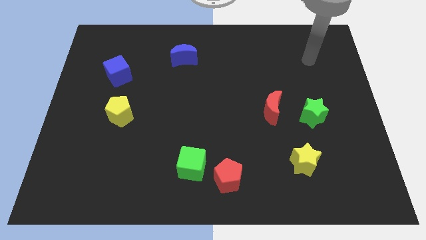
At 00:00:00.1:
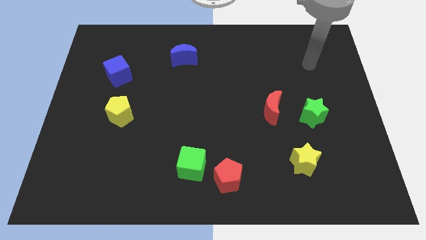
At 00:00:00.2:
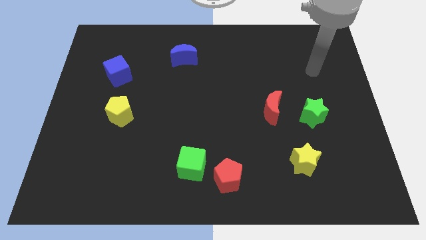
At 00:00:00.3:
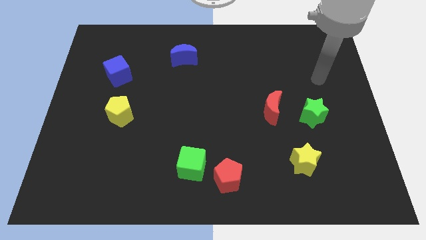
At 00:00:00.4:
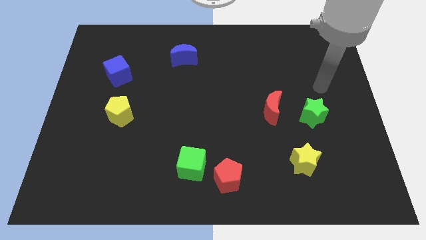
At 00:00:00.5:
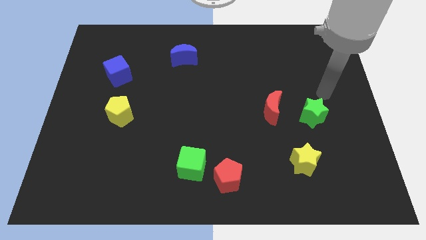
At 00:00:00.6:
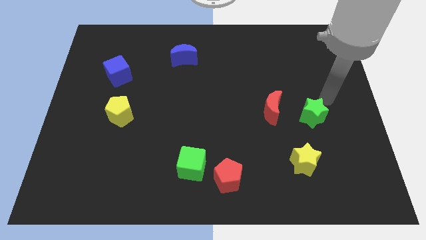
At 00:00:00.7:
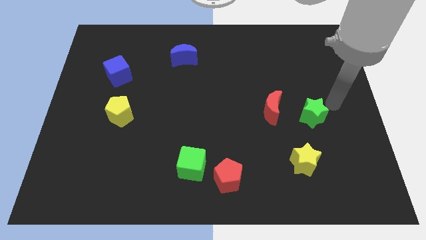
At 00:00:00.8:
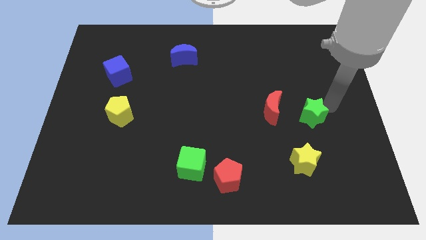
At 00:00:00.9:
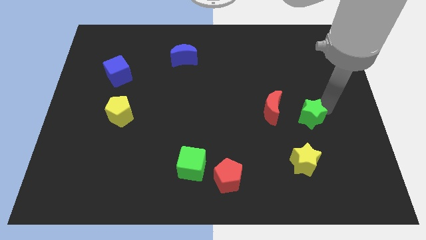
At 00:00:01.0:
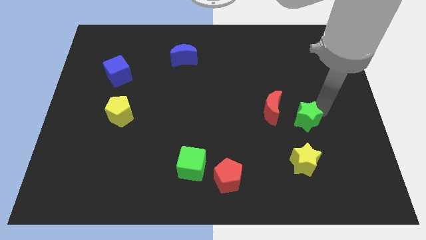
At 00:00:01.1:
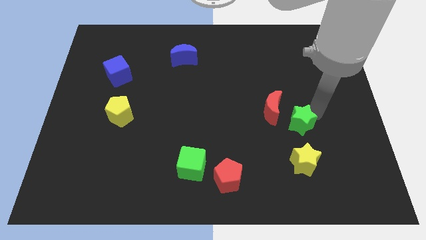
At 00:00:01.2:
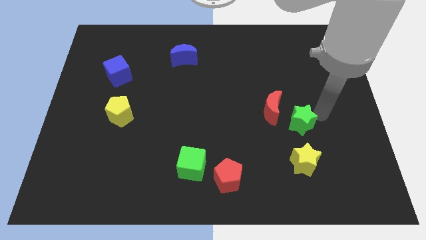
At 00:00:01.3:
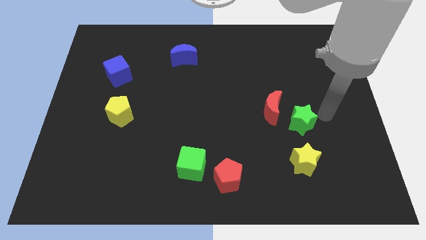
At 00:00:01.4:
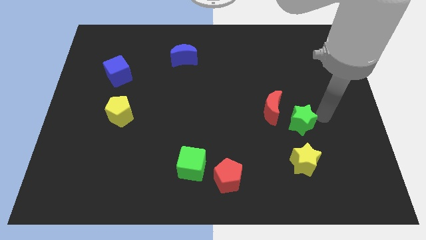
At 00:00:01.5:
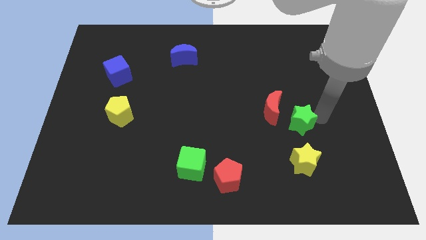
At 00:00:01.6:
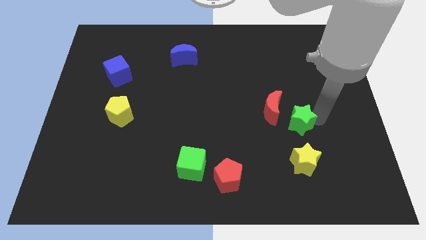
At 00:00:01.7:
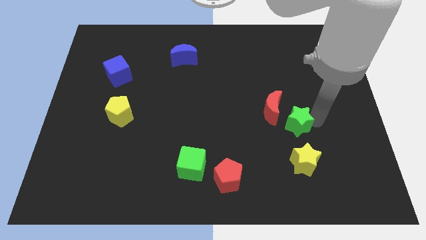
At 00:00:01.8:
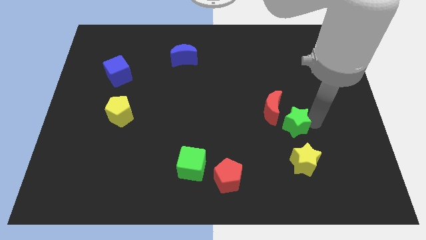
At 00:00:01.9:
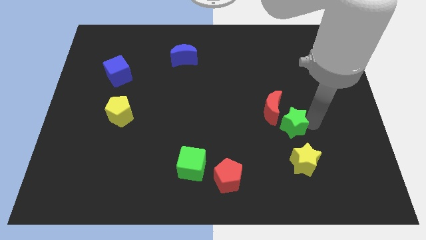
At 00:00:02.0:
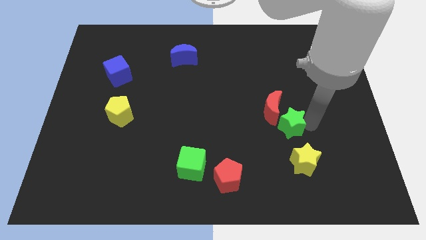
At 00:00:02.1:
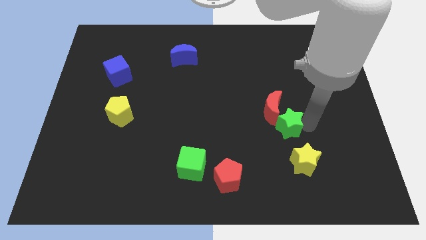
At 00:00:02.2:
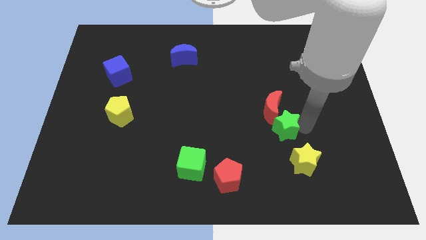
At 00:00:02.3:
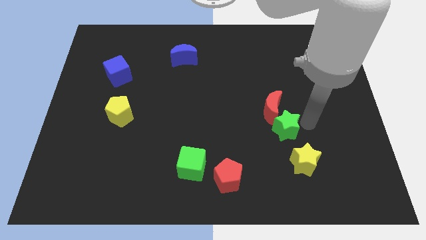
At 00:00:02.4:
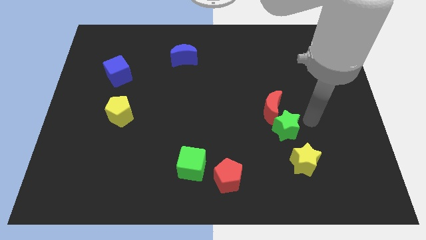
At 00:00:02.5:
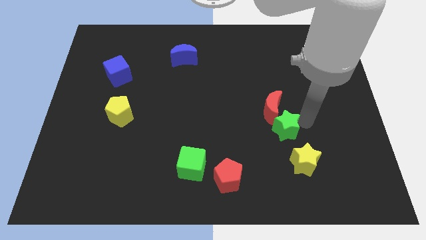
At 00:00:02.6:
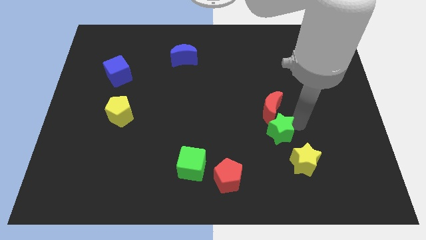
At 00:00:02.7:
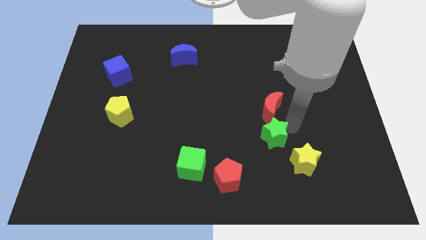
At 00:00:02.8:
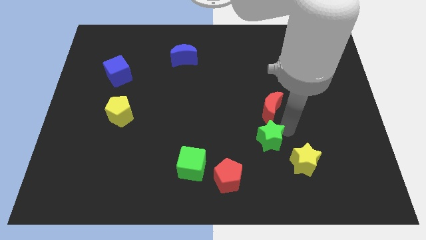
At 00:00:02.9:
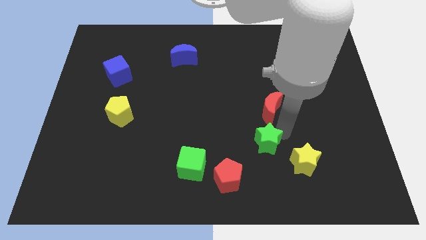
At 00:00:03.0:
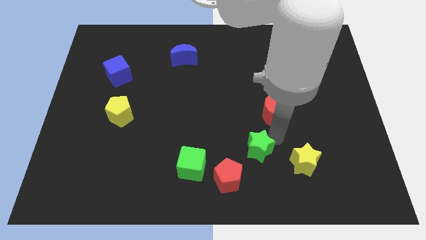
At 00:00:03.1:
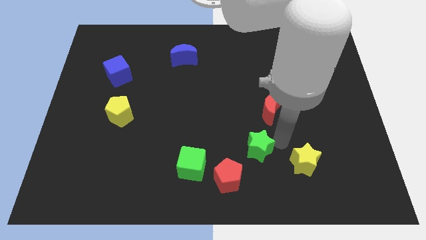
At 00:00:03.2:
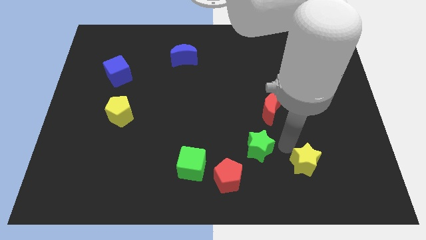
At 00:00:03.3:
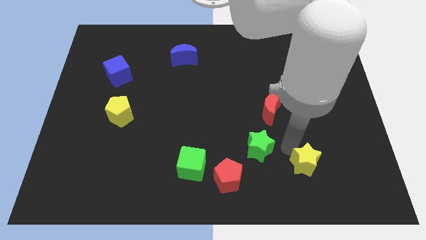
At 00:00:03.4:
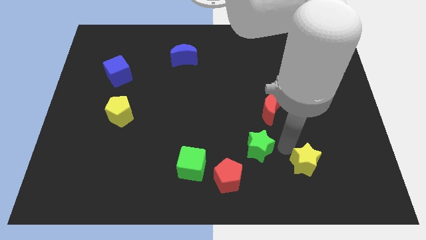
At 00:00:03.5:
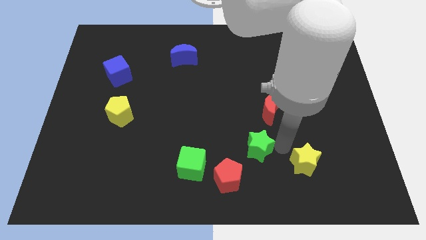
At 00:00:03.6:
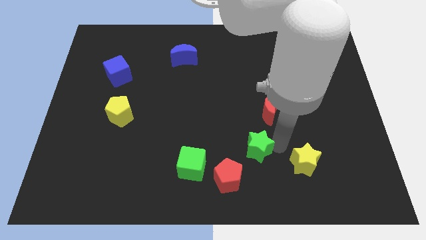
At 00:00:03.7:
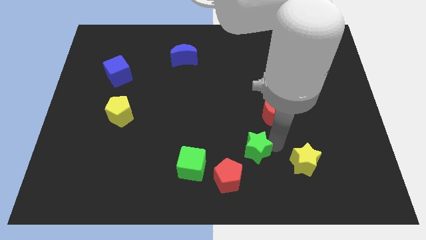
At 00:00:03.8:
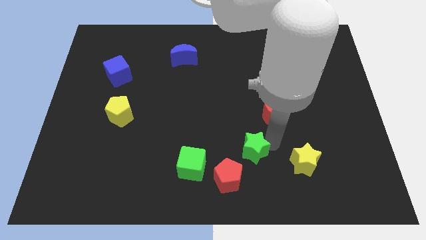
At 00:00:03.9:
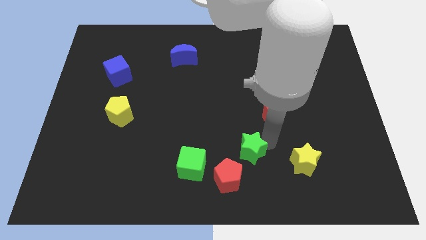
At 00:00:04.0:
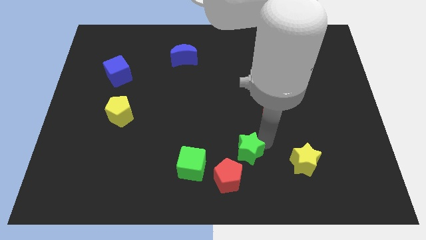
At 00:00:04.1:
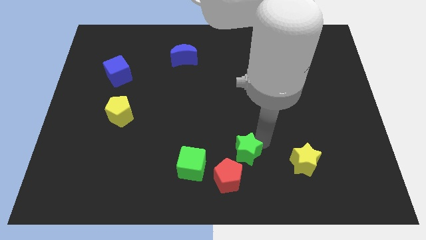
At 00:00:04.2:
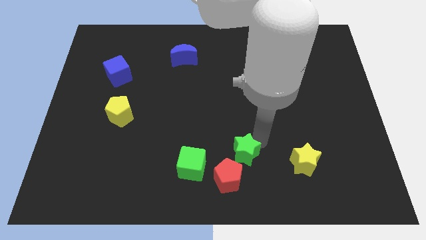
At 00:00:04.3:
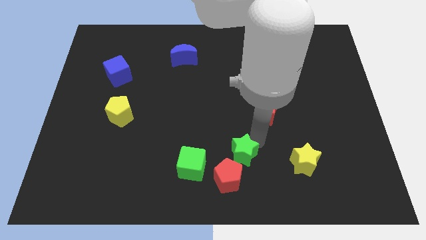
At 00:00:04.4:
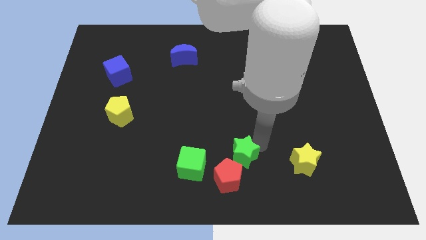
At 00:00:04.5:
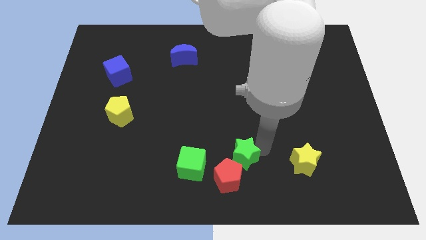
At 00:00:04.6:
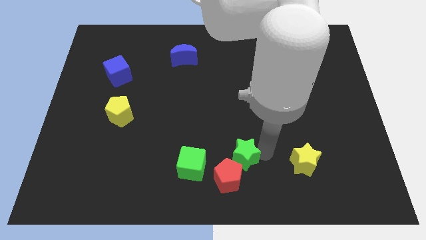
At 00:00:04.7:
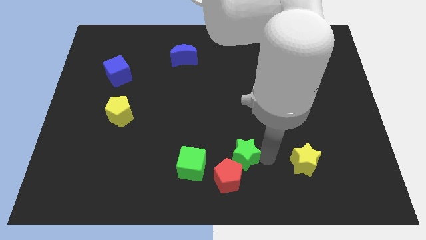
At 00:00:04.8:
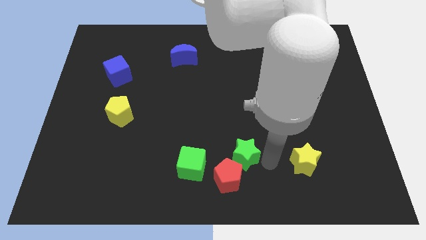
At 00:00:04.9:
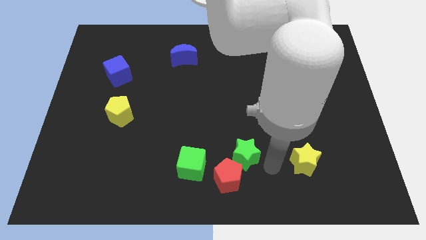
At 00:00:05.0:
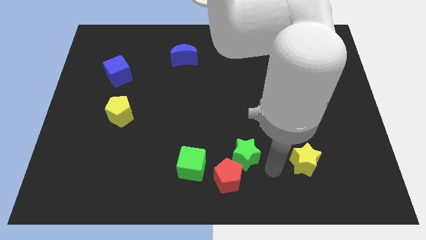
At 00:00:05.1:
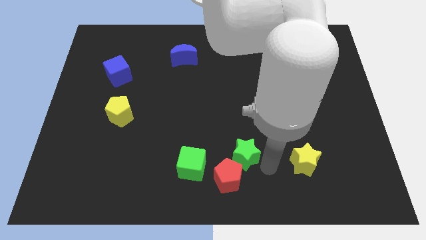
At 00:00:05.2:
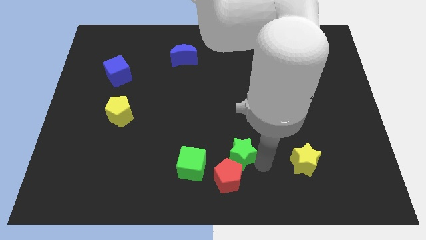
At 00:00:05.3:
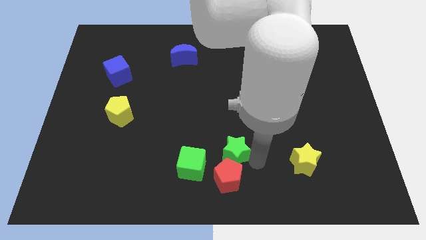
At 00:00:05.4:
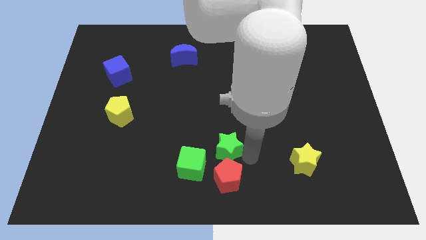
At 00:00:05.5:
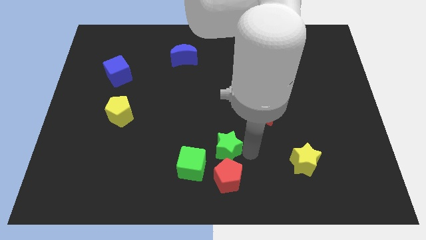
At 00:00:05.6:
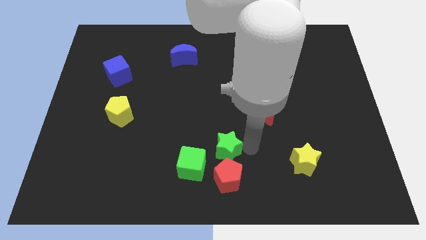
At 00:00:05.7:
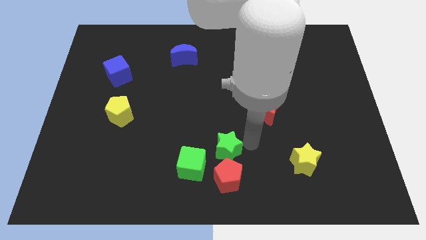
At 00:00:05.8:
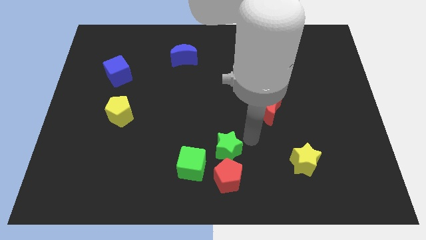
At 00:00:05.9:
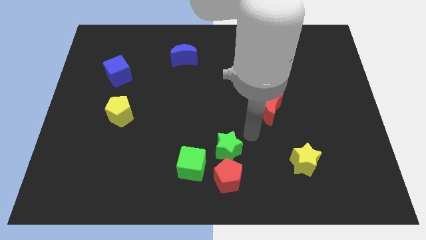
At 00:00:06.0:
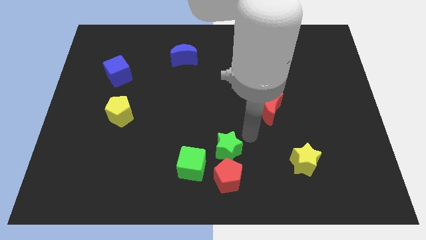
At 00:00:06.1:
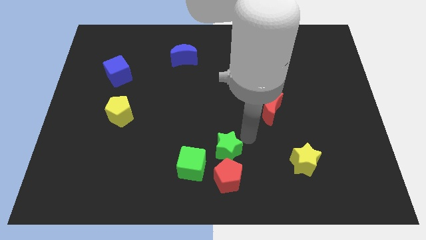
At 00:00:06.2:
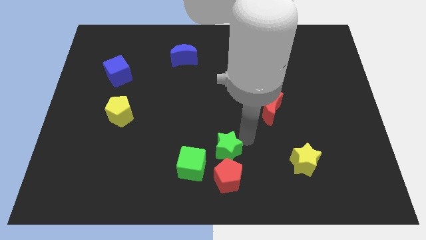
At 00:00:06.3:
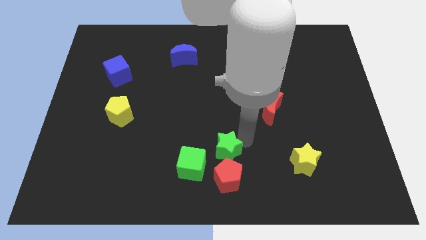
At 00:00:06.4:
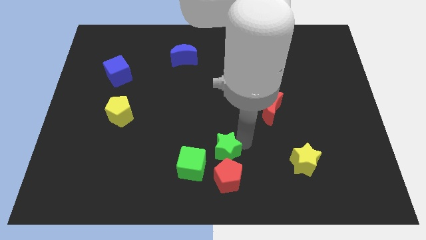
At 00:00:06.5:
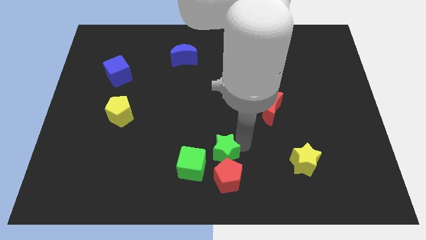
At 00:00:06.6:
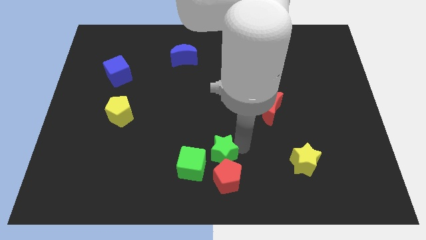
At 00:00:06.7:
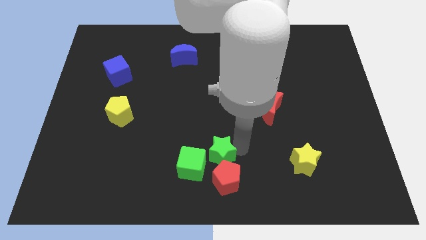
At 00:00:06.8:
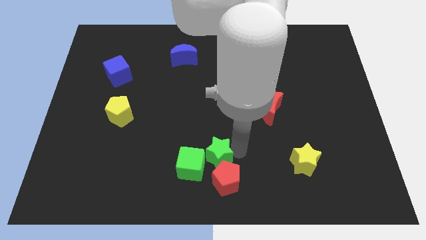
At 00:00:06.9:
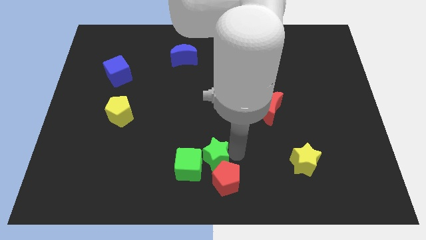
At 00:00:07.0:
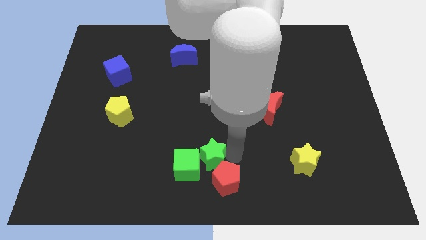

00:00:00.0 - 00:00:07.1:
move the green star to the green cube
